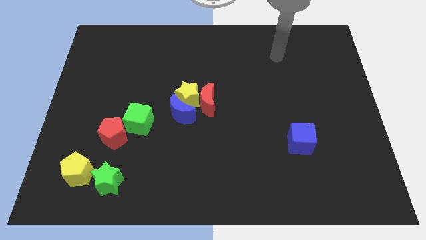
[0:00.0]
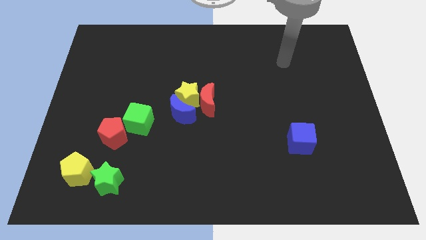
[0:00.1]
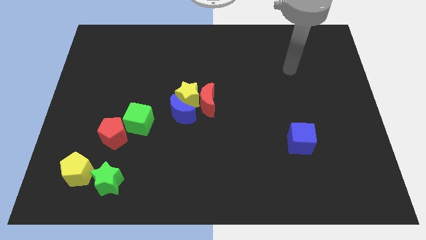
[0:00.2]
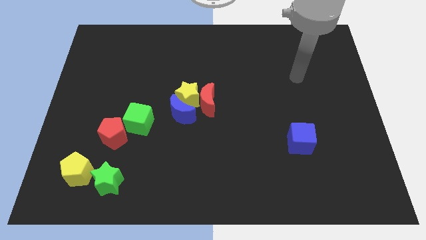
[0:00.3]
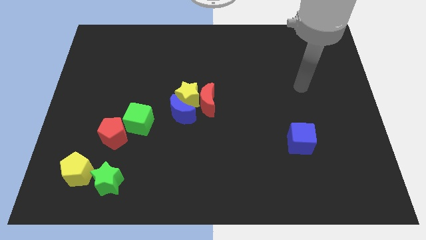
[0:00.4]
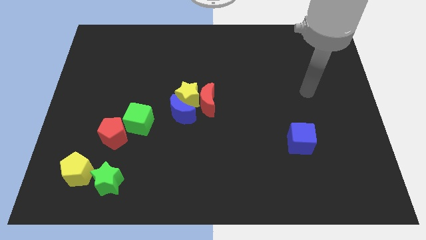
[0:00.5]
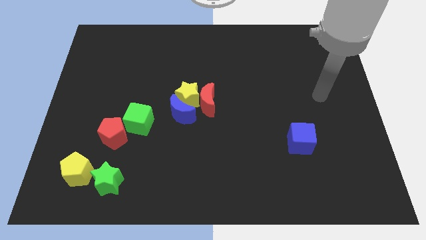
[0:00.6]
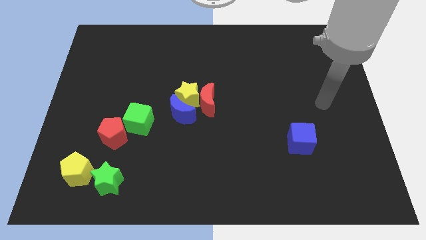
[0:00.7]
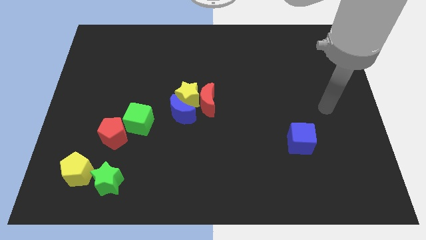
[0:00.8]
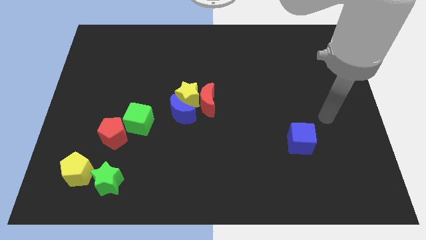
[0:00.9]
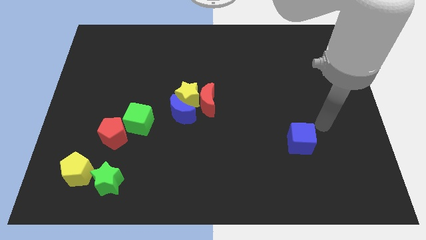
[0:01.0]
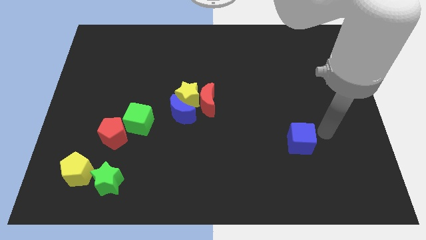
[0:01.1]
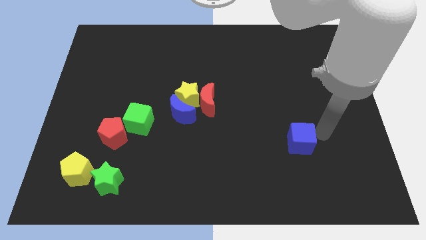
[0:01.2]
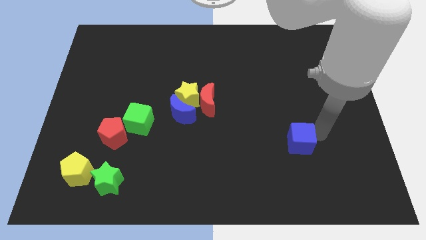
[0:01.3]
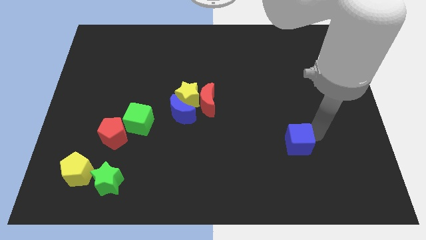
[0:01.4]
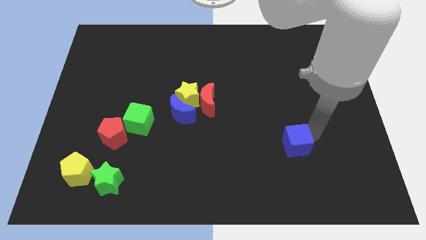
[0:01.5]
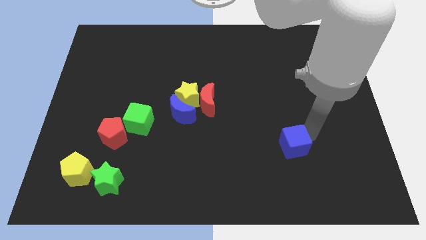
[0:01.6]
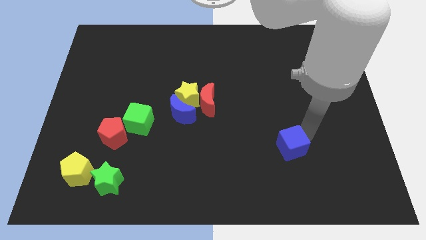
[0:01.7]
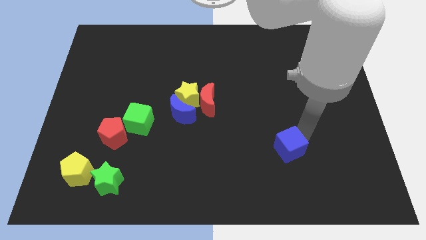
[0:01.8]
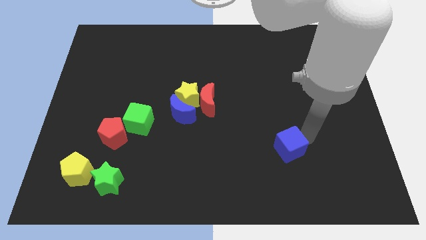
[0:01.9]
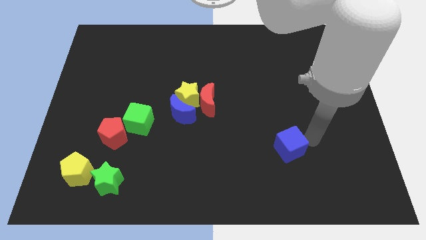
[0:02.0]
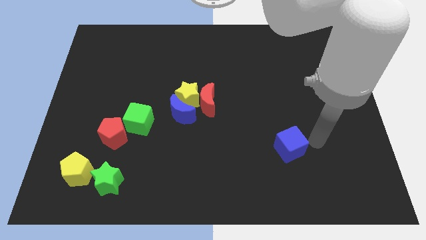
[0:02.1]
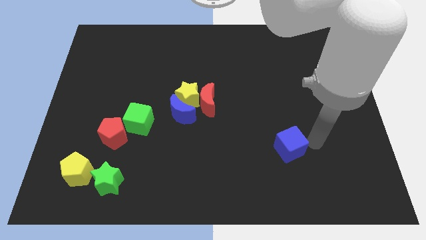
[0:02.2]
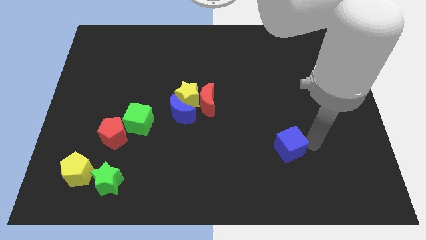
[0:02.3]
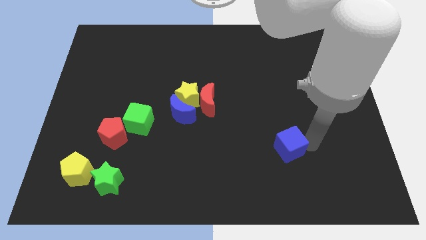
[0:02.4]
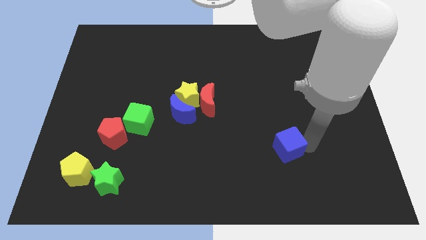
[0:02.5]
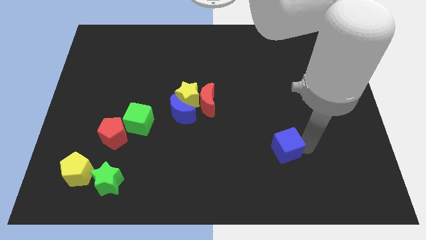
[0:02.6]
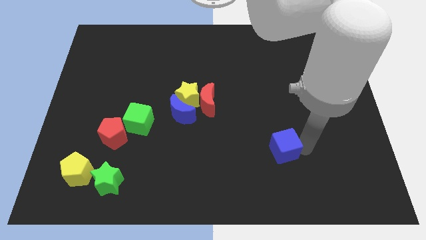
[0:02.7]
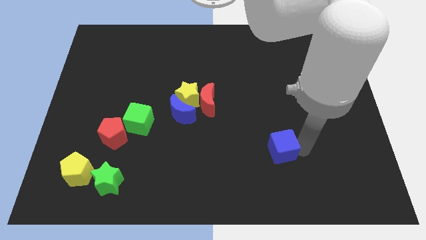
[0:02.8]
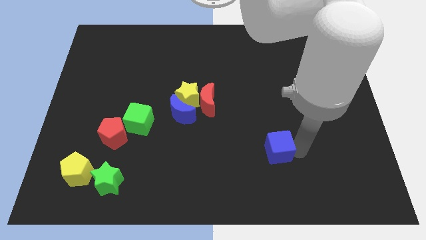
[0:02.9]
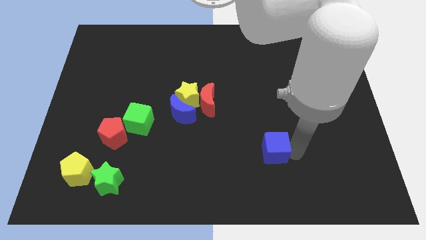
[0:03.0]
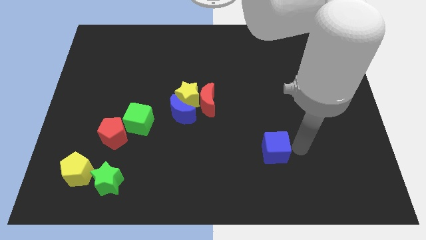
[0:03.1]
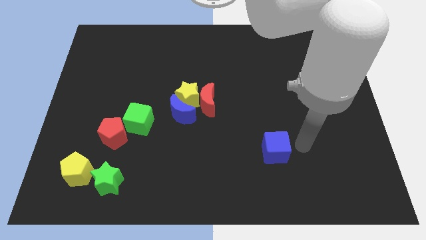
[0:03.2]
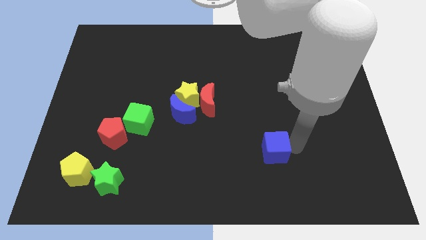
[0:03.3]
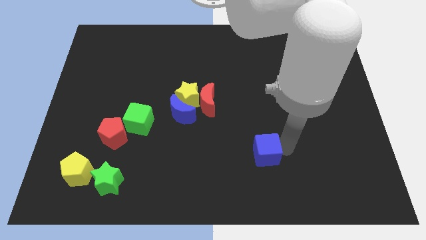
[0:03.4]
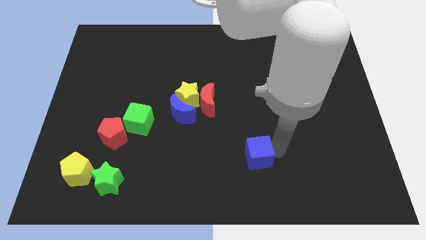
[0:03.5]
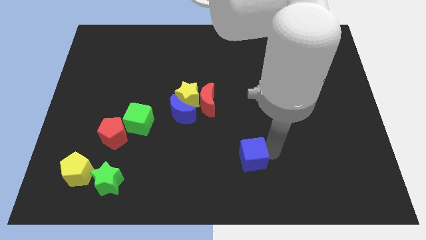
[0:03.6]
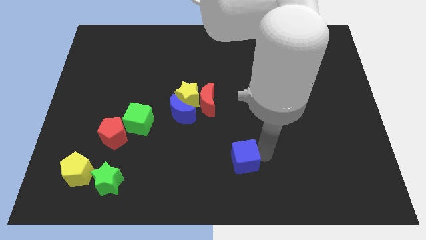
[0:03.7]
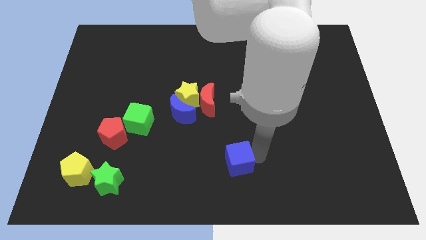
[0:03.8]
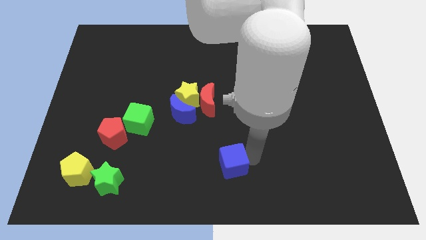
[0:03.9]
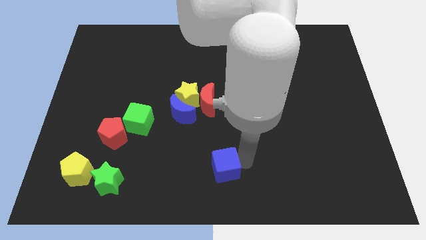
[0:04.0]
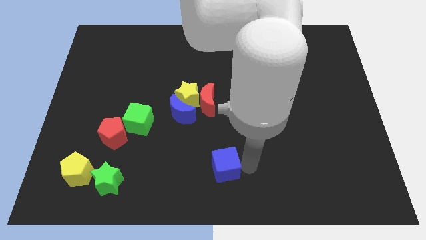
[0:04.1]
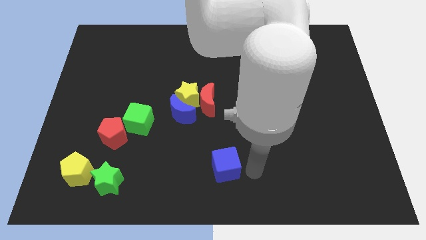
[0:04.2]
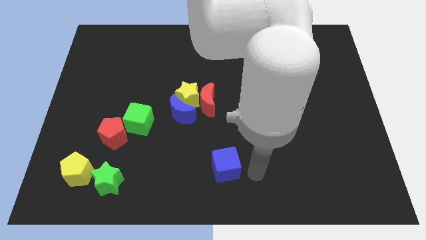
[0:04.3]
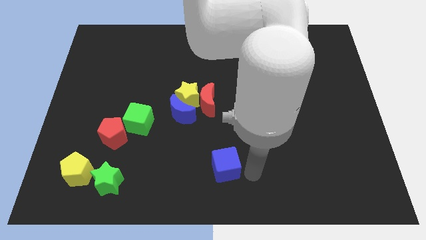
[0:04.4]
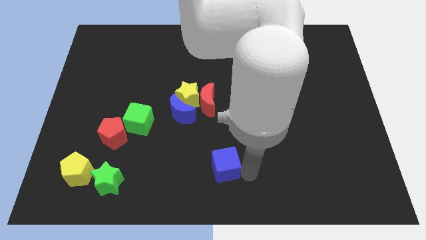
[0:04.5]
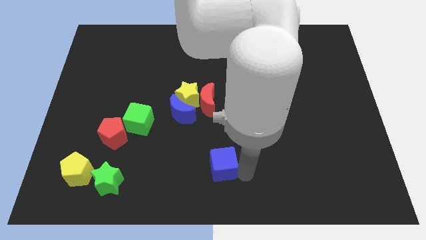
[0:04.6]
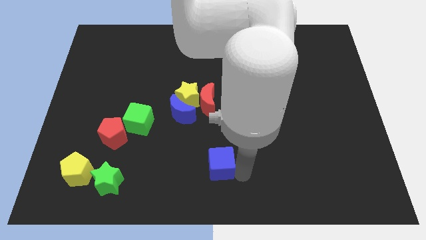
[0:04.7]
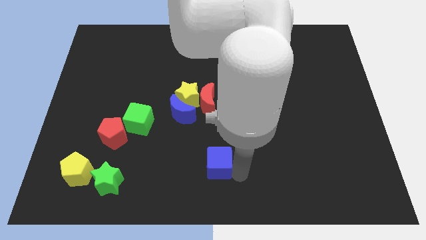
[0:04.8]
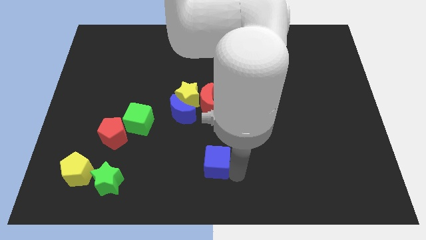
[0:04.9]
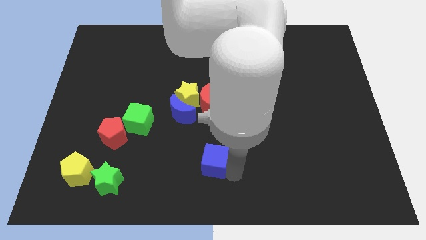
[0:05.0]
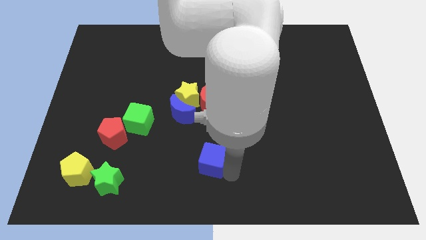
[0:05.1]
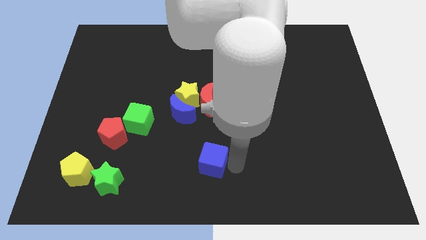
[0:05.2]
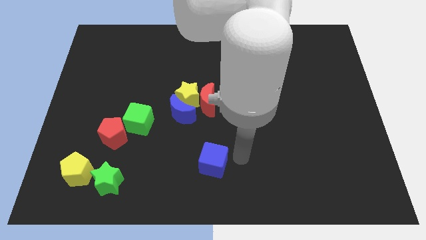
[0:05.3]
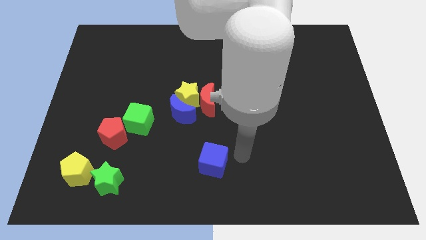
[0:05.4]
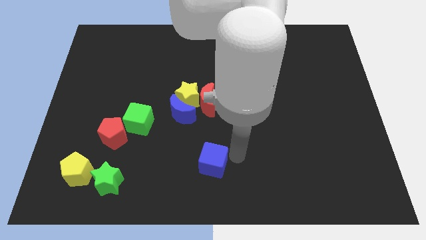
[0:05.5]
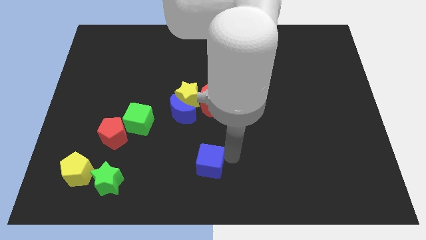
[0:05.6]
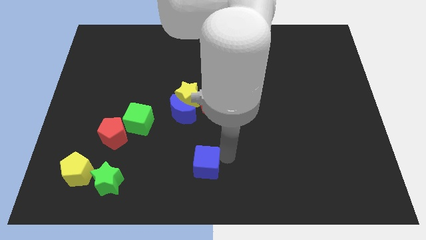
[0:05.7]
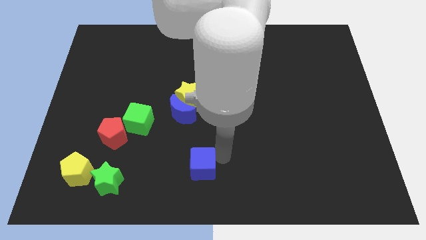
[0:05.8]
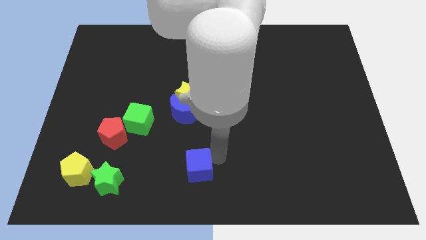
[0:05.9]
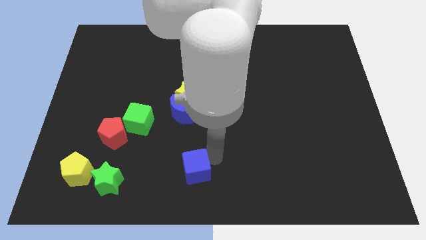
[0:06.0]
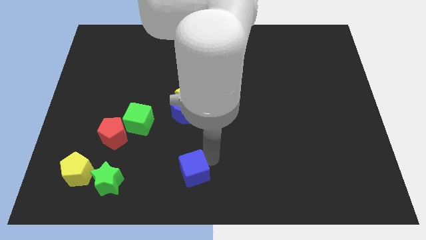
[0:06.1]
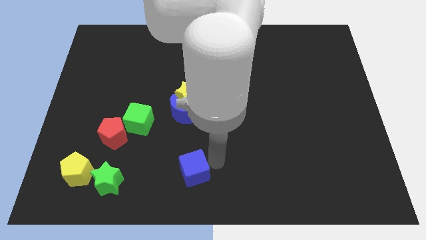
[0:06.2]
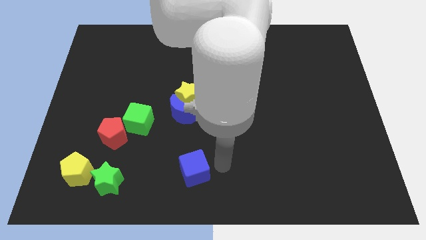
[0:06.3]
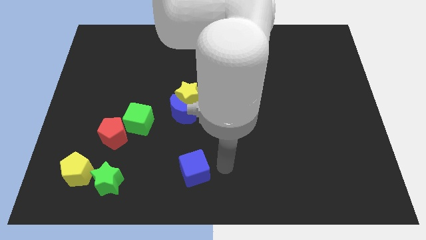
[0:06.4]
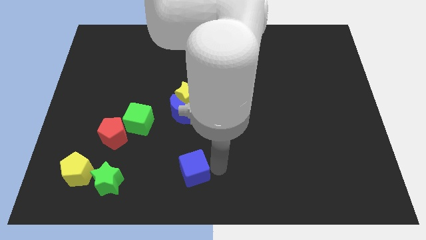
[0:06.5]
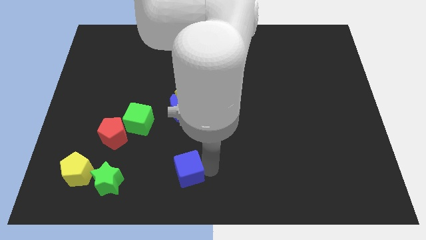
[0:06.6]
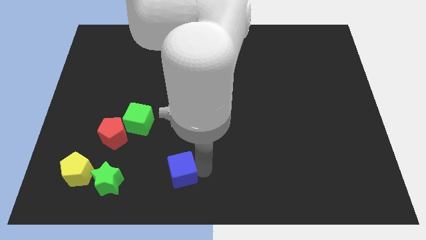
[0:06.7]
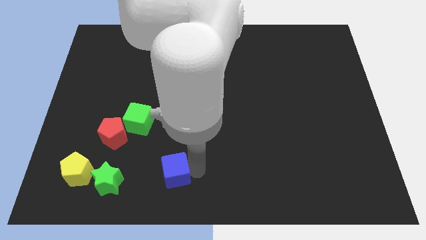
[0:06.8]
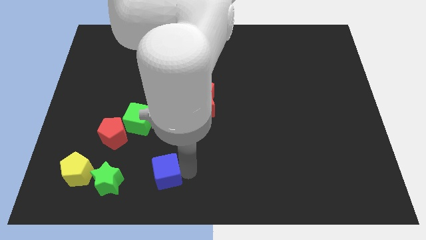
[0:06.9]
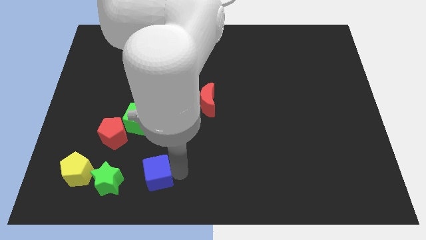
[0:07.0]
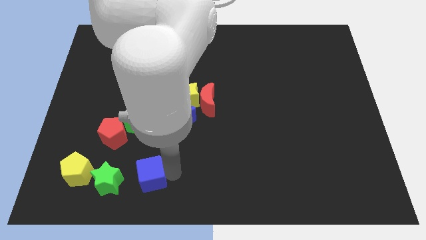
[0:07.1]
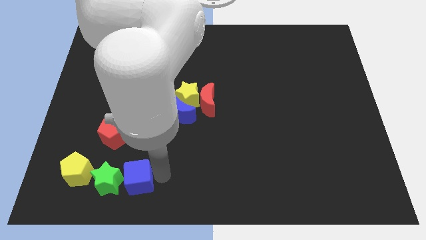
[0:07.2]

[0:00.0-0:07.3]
move the blue cube next to the green star
